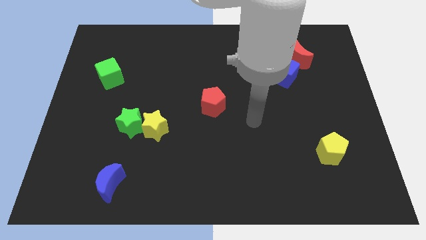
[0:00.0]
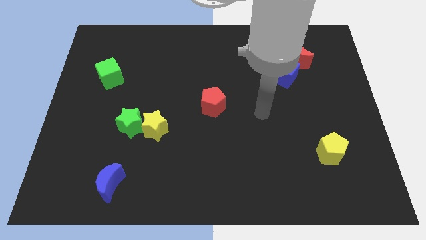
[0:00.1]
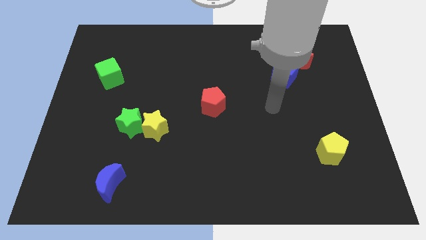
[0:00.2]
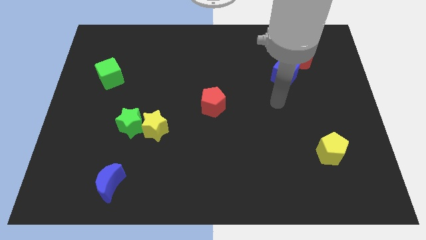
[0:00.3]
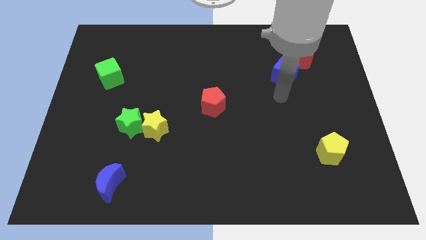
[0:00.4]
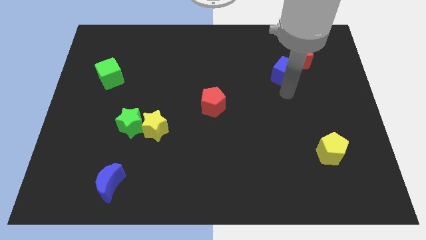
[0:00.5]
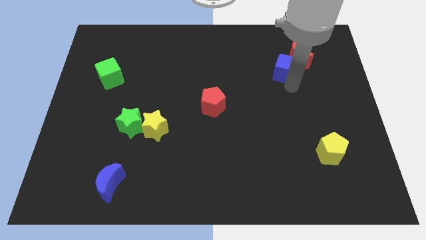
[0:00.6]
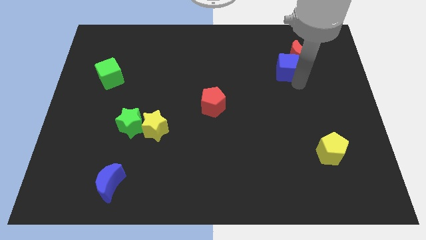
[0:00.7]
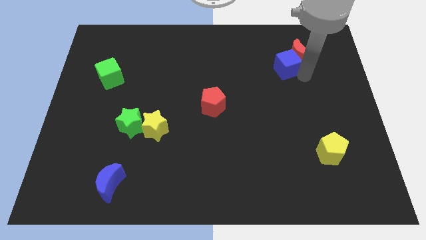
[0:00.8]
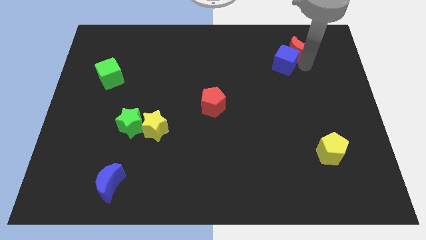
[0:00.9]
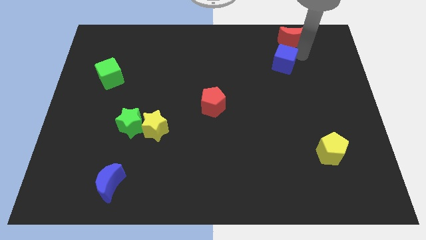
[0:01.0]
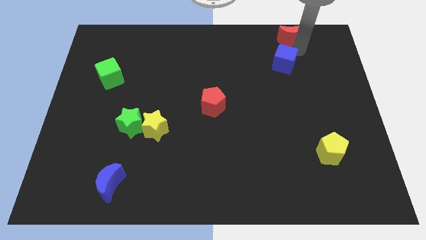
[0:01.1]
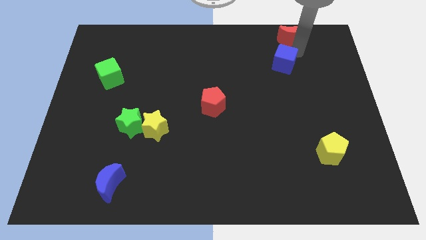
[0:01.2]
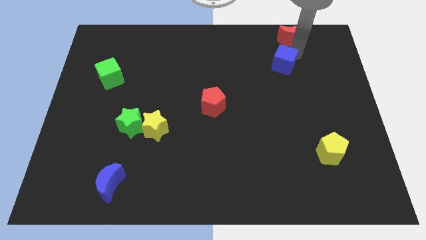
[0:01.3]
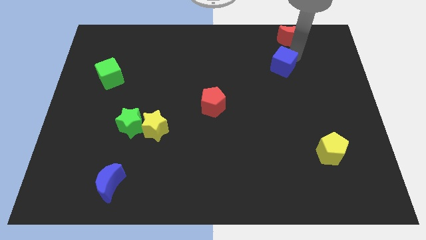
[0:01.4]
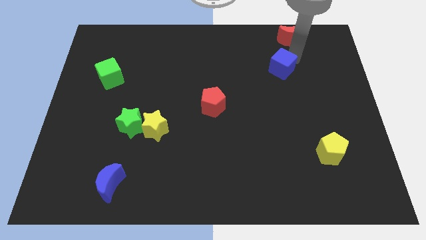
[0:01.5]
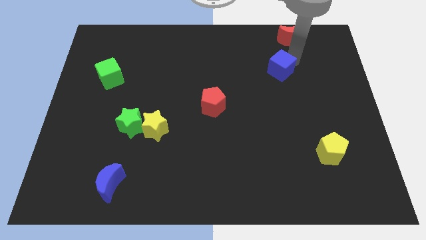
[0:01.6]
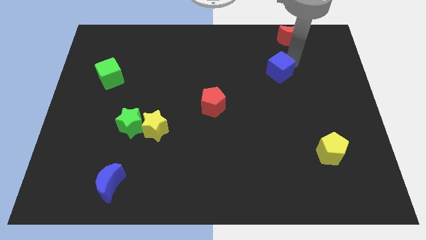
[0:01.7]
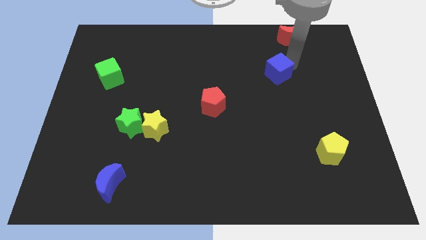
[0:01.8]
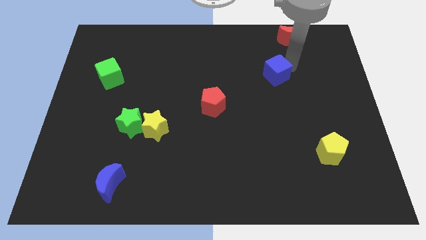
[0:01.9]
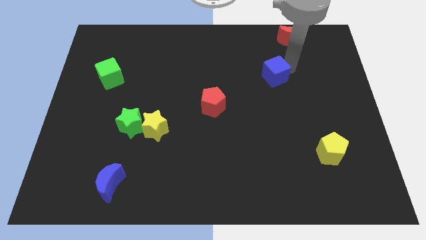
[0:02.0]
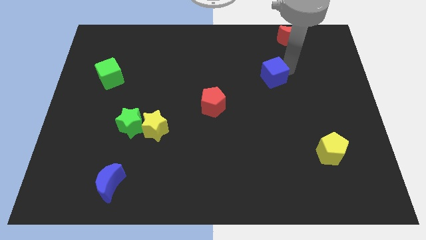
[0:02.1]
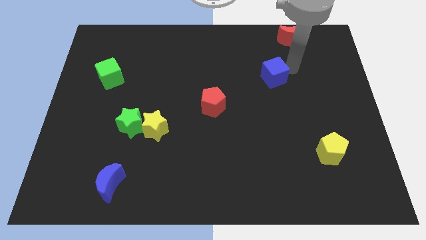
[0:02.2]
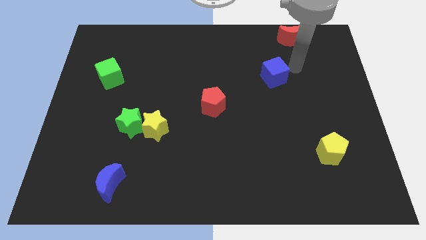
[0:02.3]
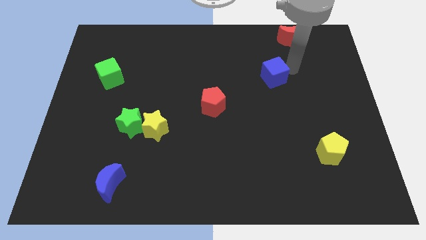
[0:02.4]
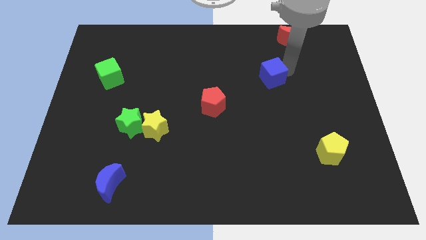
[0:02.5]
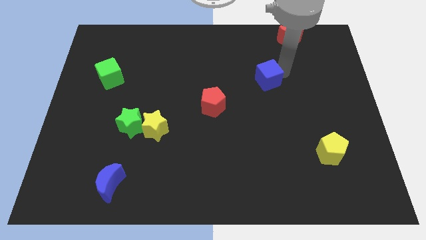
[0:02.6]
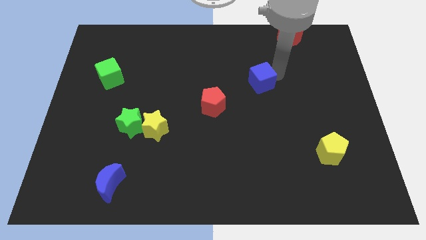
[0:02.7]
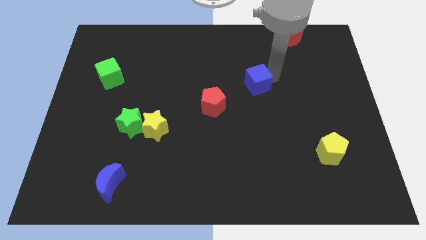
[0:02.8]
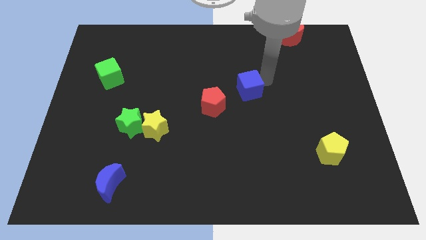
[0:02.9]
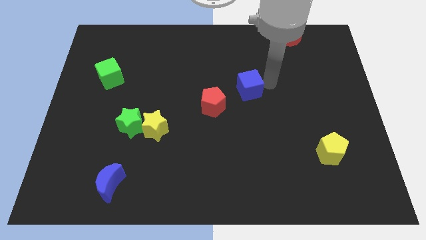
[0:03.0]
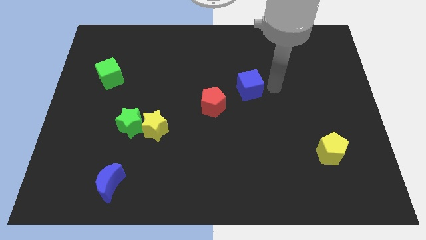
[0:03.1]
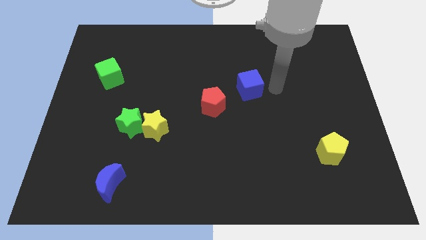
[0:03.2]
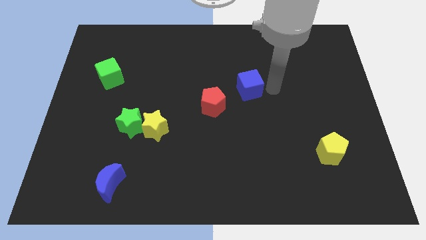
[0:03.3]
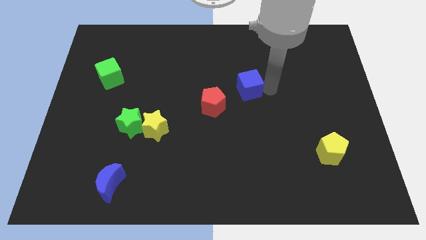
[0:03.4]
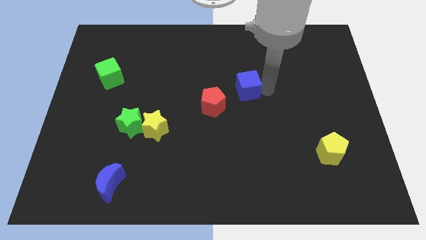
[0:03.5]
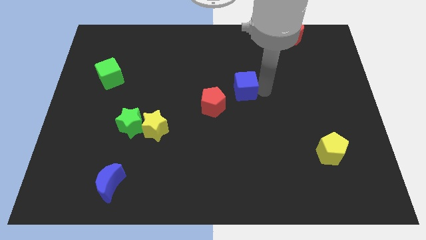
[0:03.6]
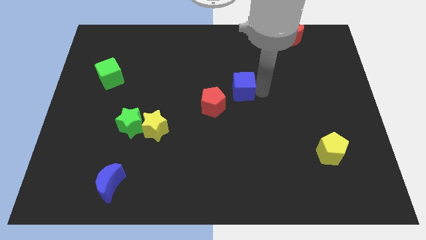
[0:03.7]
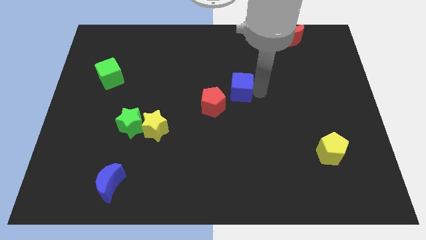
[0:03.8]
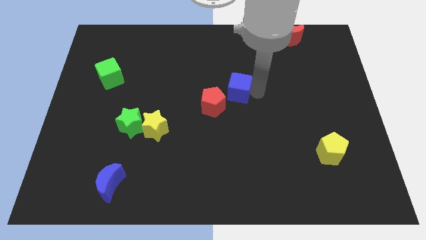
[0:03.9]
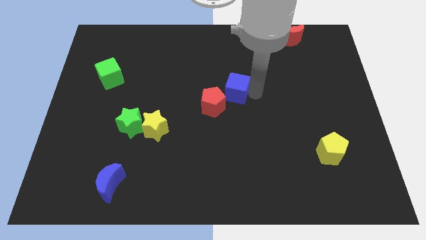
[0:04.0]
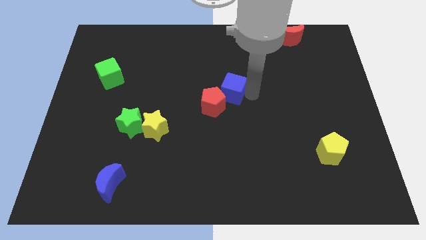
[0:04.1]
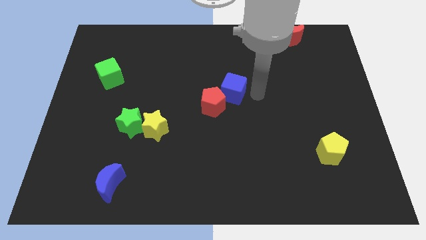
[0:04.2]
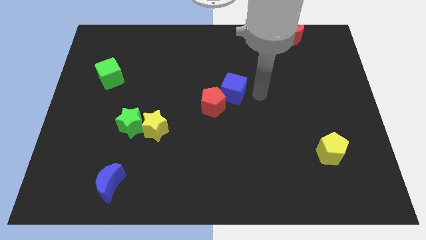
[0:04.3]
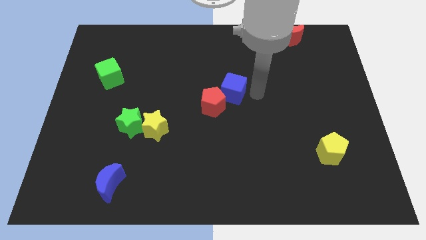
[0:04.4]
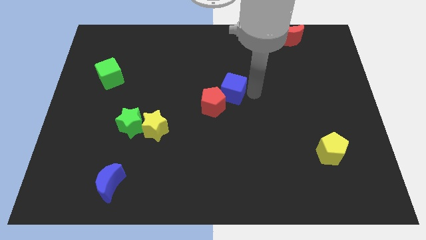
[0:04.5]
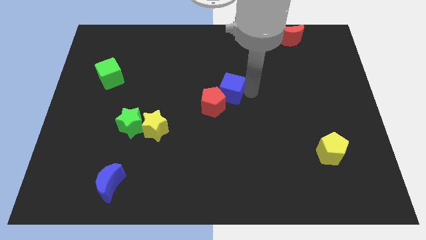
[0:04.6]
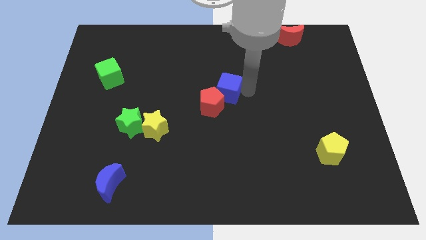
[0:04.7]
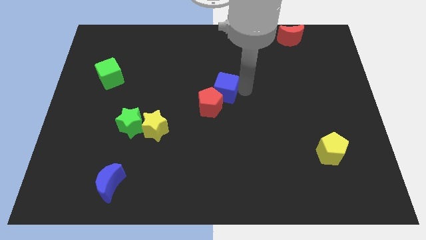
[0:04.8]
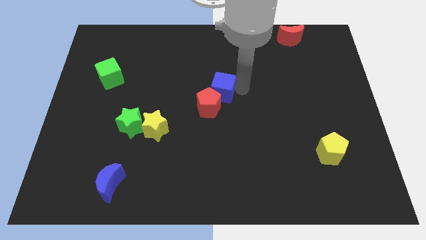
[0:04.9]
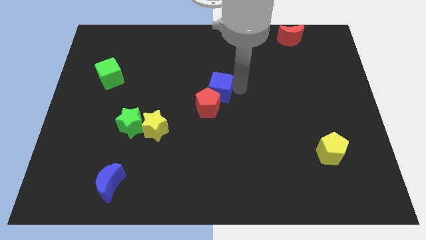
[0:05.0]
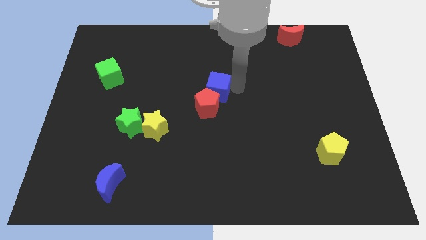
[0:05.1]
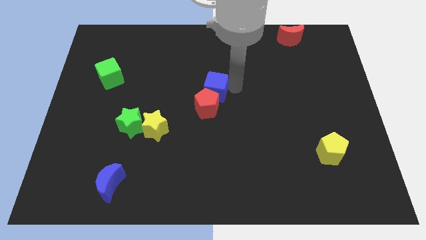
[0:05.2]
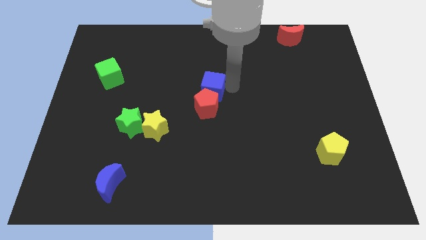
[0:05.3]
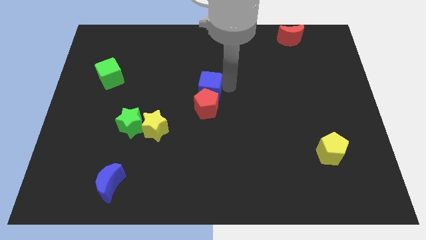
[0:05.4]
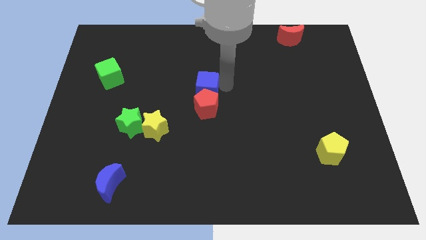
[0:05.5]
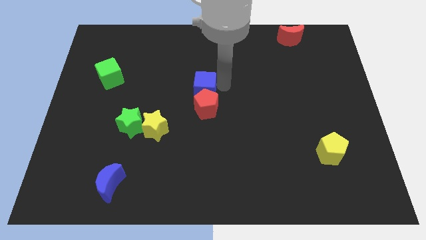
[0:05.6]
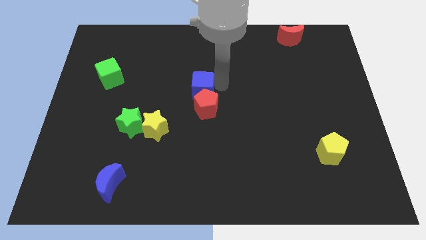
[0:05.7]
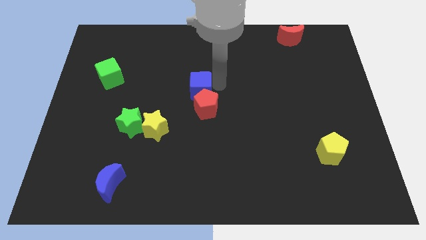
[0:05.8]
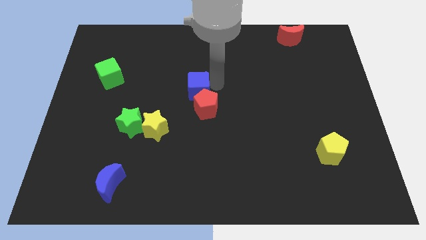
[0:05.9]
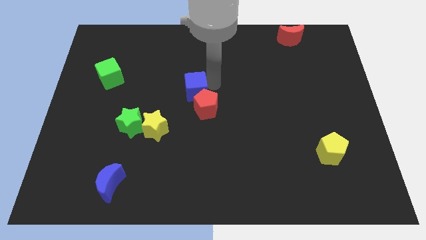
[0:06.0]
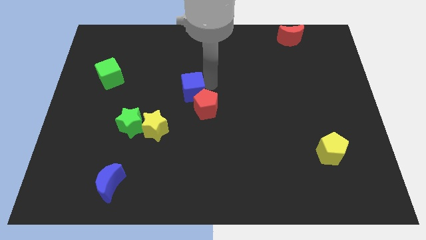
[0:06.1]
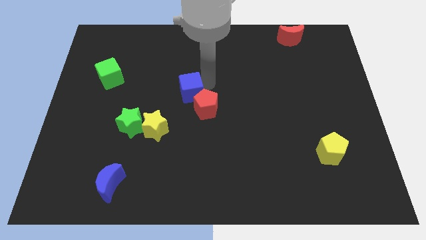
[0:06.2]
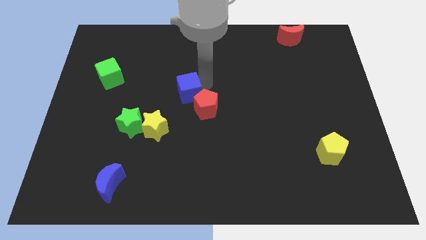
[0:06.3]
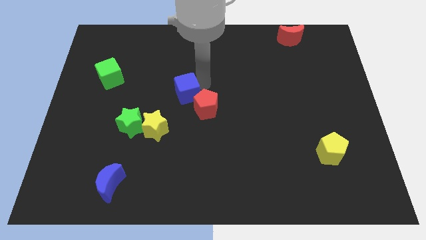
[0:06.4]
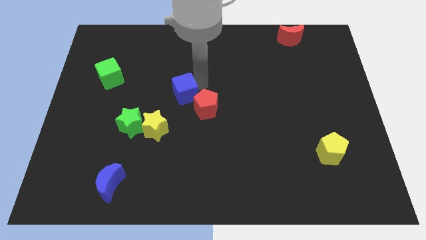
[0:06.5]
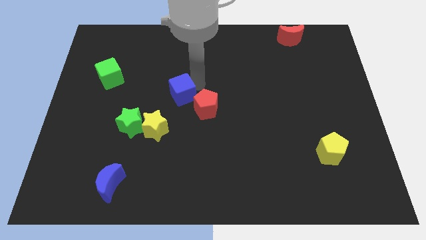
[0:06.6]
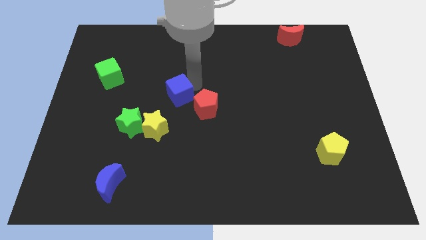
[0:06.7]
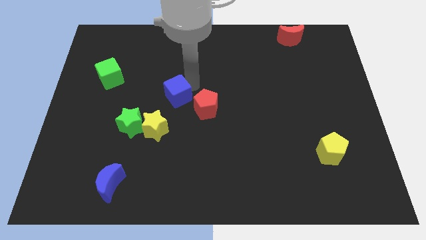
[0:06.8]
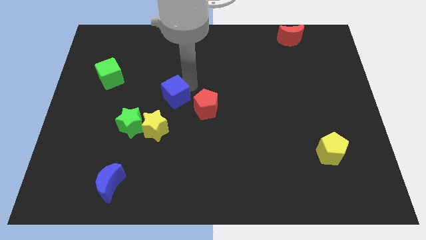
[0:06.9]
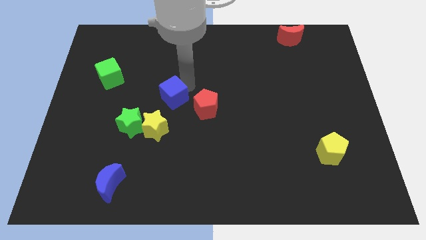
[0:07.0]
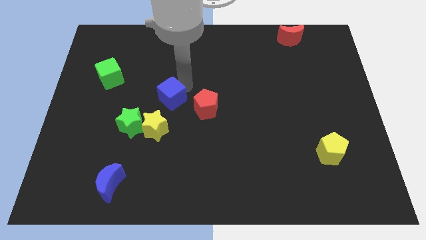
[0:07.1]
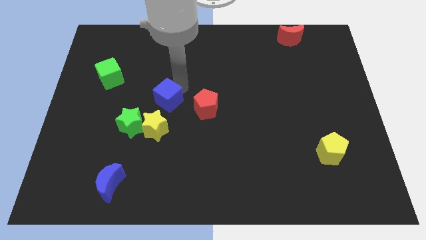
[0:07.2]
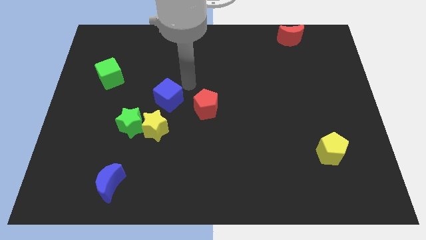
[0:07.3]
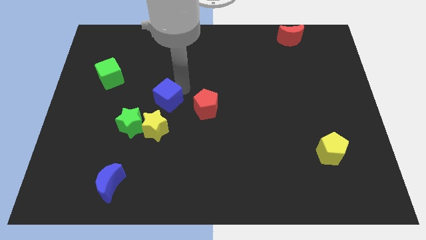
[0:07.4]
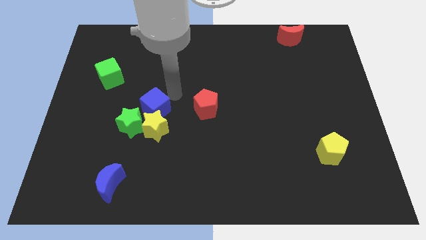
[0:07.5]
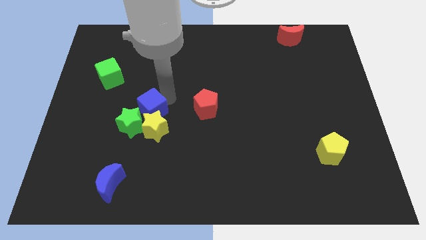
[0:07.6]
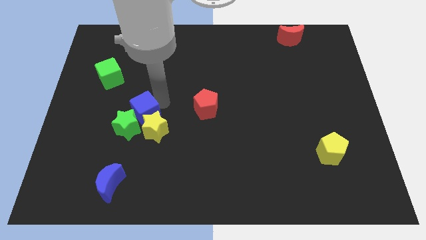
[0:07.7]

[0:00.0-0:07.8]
push the blue cube next to the green star
